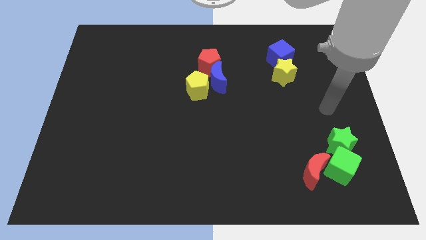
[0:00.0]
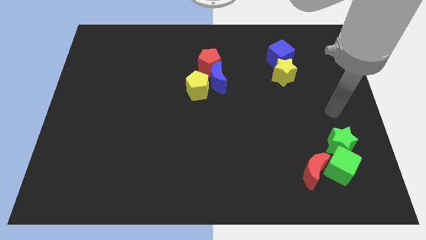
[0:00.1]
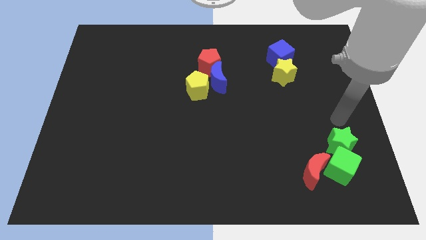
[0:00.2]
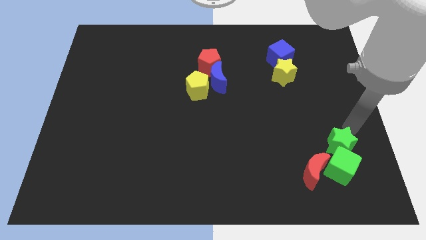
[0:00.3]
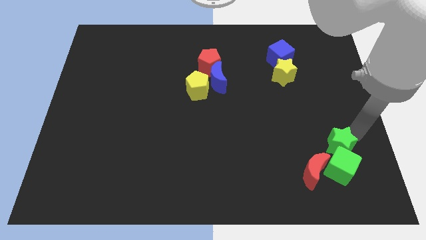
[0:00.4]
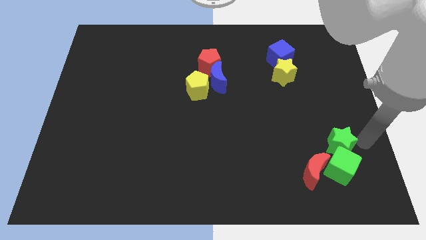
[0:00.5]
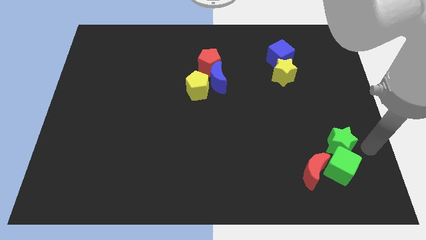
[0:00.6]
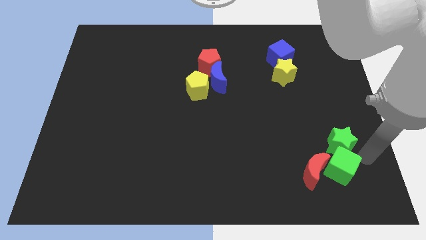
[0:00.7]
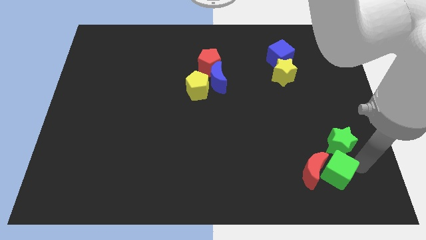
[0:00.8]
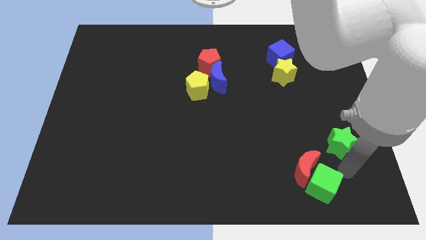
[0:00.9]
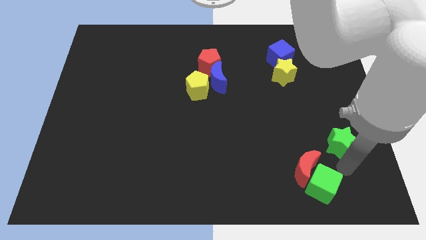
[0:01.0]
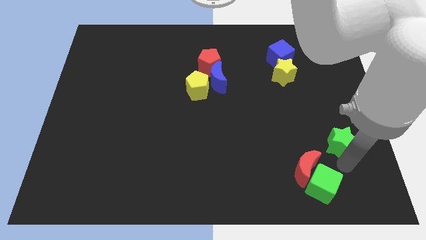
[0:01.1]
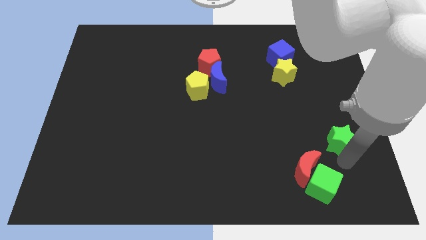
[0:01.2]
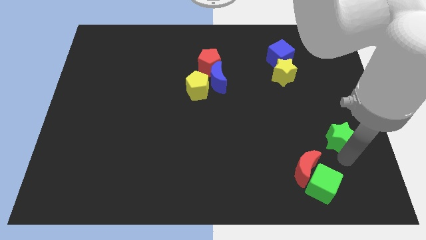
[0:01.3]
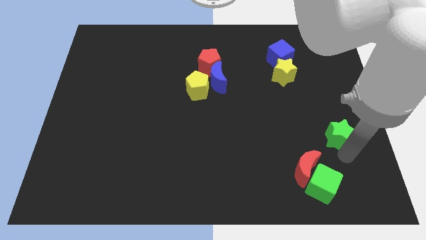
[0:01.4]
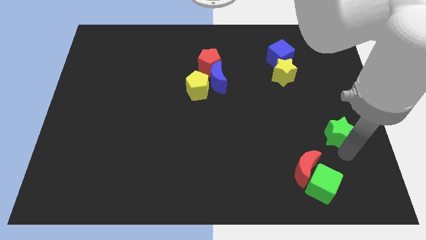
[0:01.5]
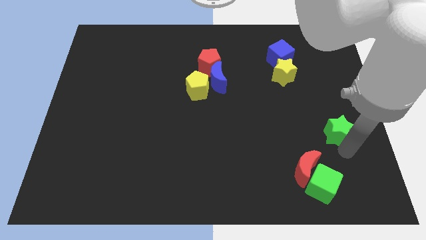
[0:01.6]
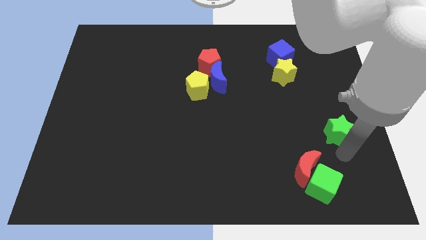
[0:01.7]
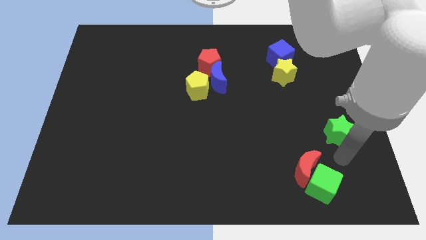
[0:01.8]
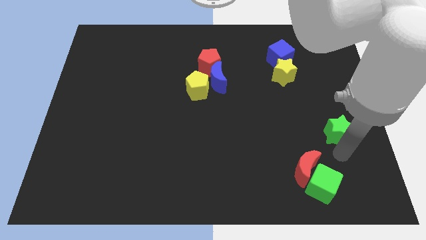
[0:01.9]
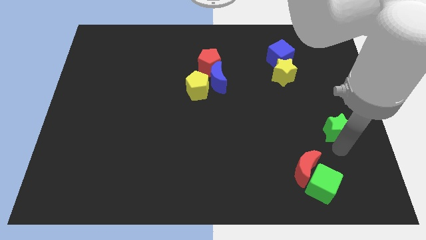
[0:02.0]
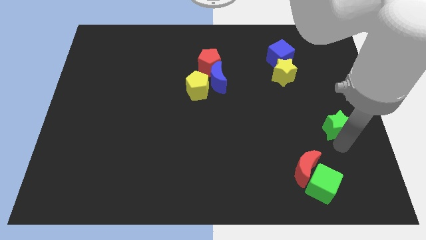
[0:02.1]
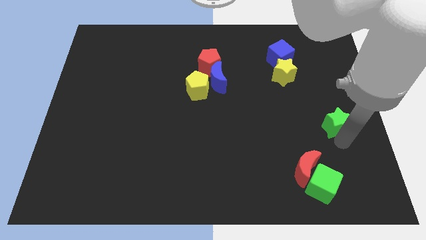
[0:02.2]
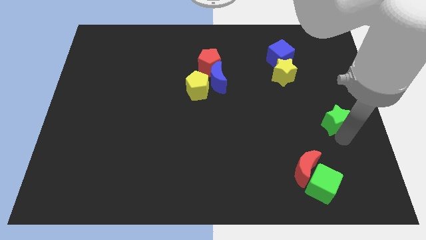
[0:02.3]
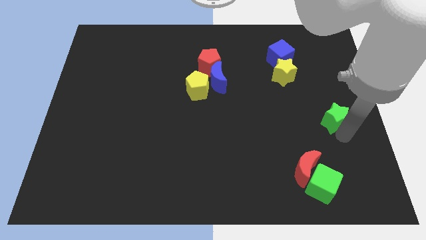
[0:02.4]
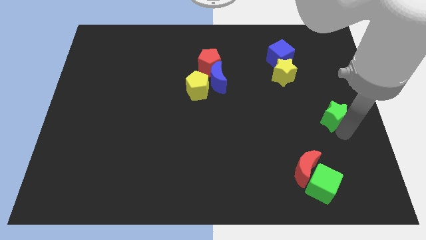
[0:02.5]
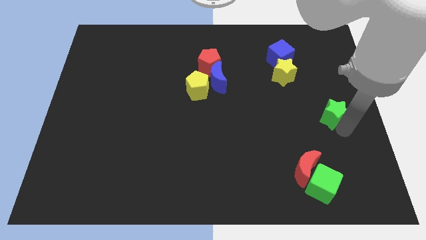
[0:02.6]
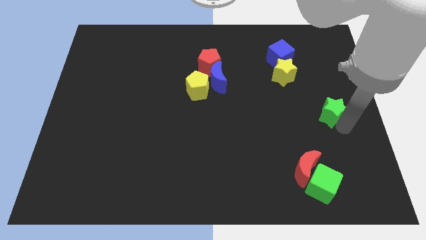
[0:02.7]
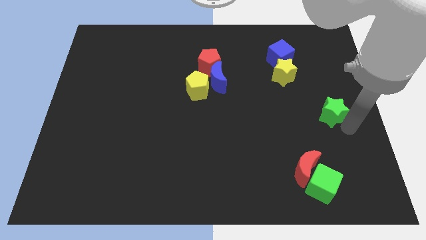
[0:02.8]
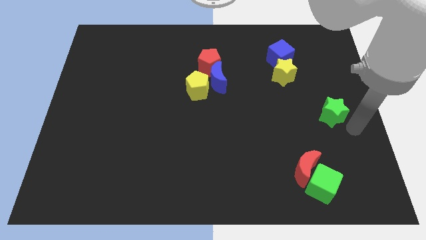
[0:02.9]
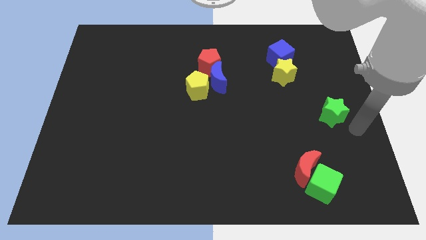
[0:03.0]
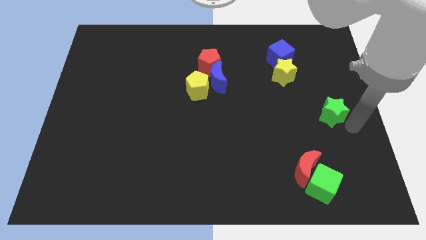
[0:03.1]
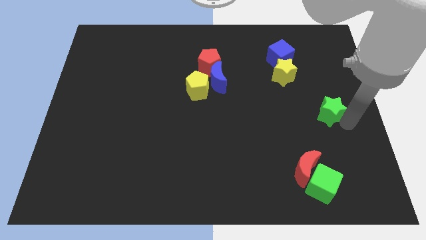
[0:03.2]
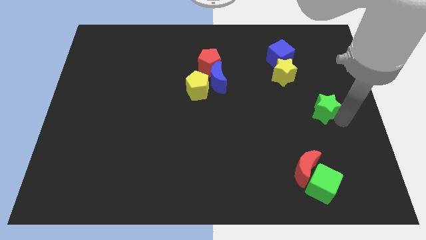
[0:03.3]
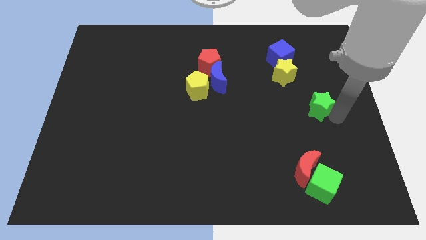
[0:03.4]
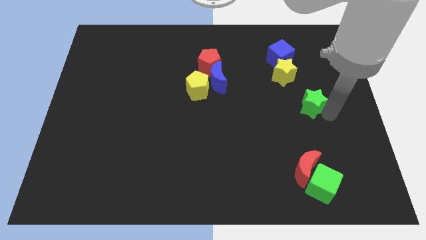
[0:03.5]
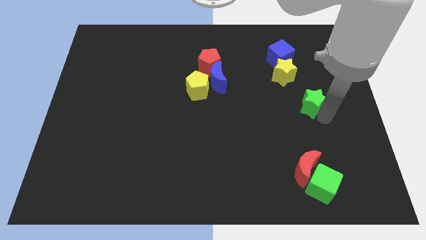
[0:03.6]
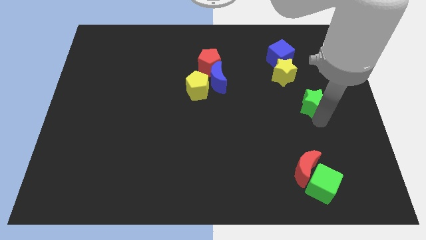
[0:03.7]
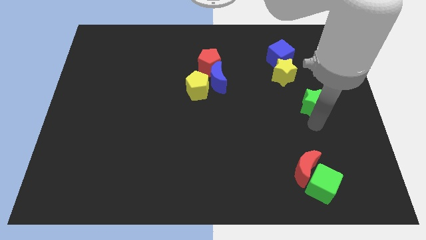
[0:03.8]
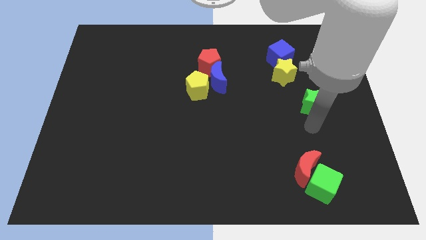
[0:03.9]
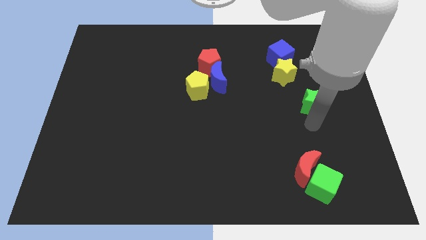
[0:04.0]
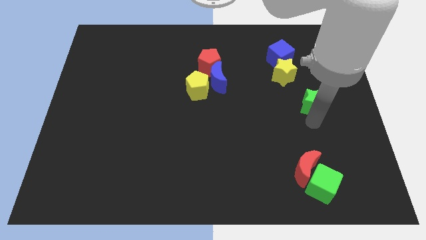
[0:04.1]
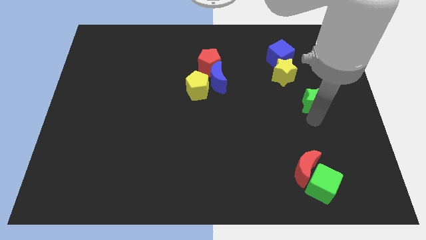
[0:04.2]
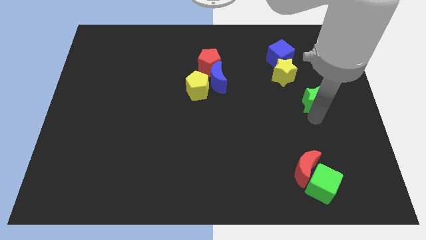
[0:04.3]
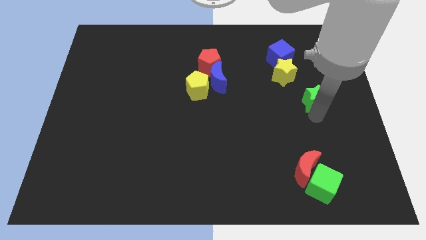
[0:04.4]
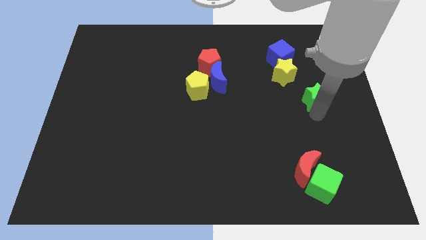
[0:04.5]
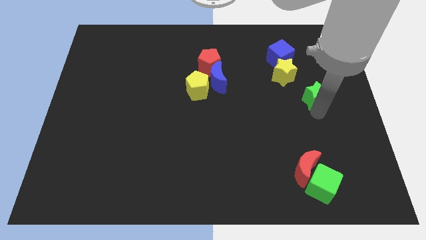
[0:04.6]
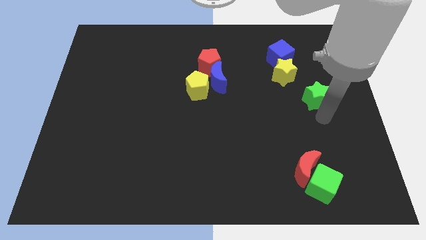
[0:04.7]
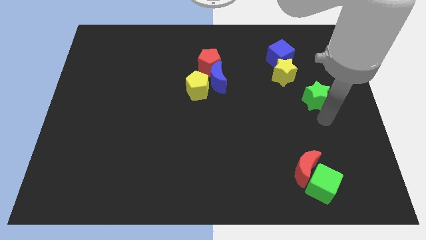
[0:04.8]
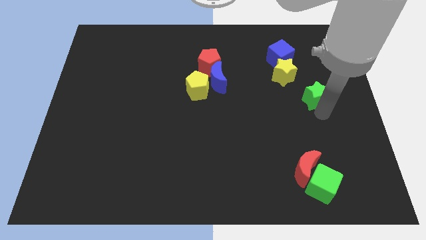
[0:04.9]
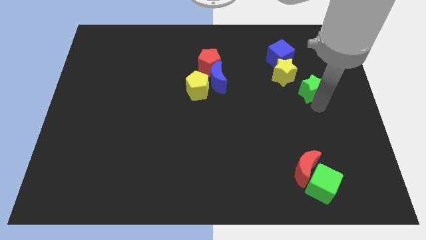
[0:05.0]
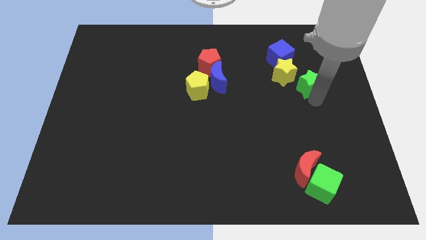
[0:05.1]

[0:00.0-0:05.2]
move the green star to the bottom right side of the blue cube

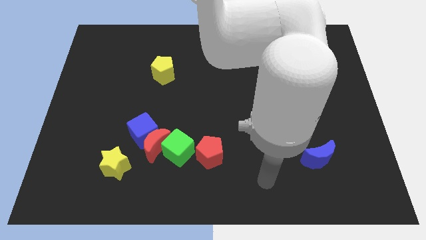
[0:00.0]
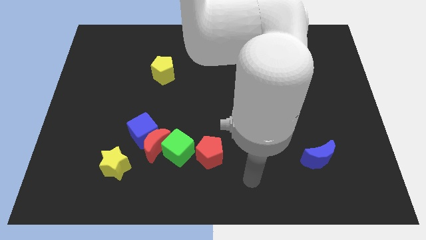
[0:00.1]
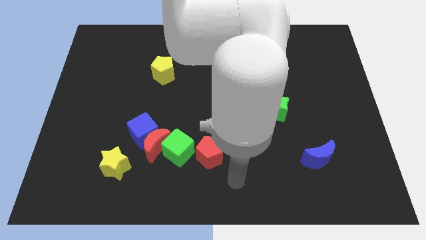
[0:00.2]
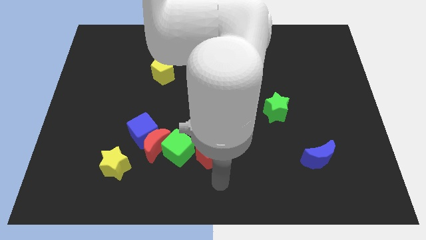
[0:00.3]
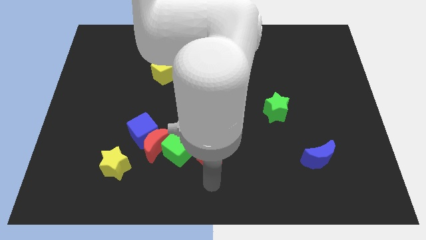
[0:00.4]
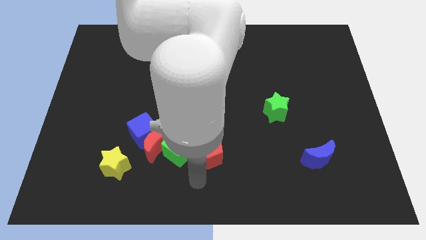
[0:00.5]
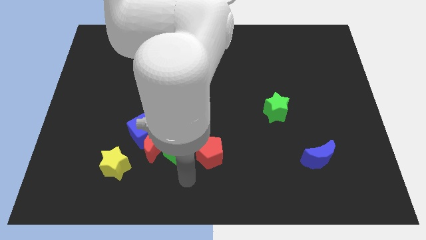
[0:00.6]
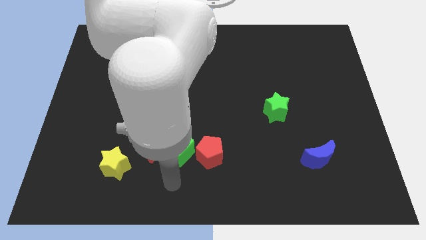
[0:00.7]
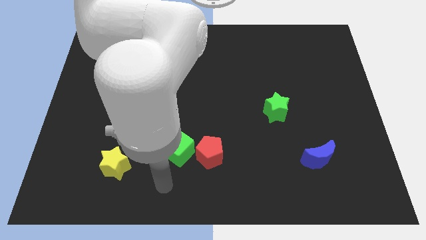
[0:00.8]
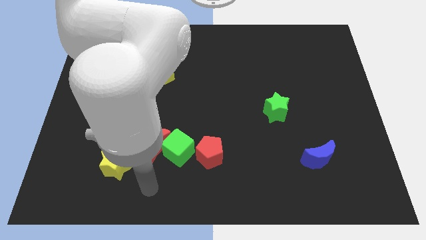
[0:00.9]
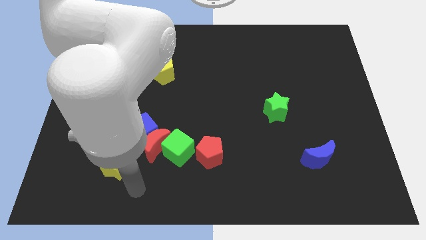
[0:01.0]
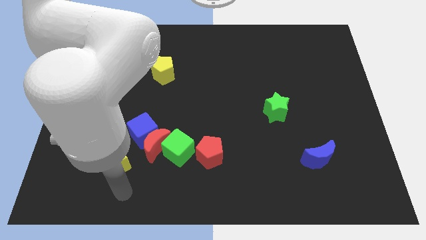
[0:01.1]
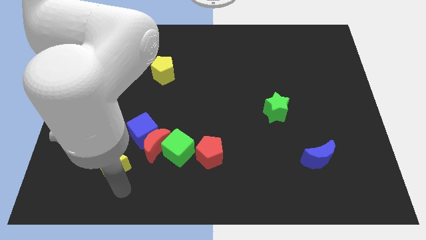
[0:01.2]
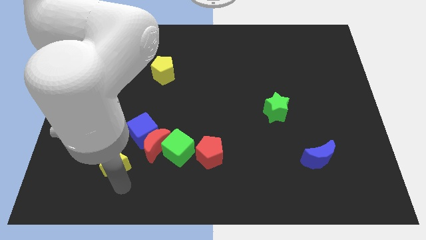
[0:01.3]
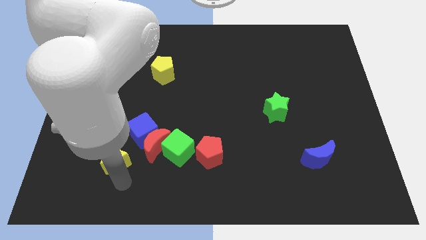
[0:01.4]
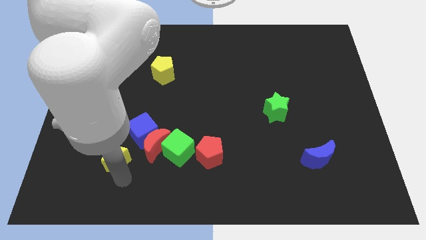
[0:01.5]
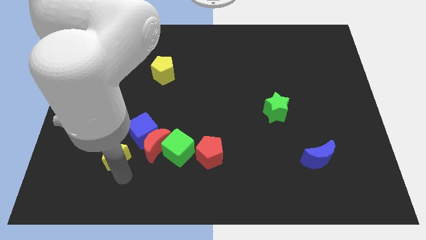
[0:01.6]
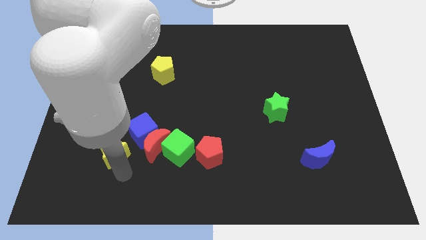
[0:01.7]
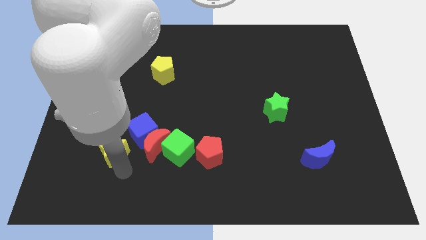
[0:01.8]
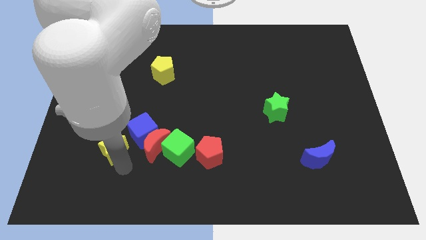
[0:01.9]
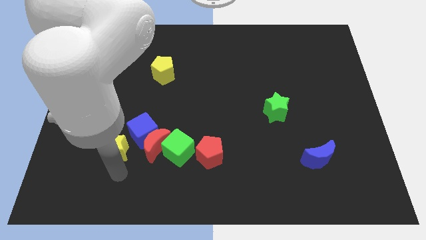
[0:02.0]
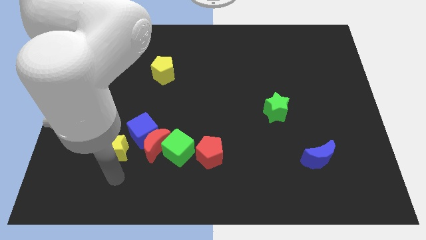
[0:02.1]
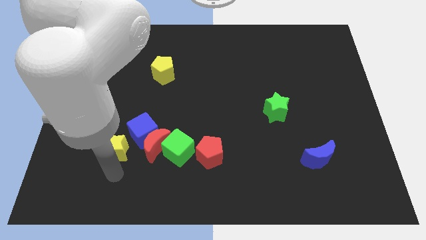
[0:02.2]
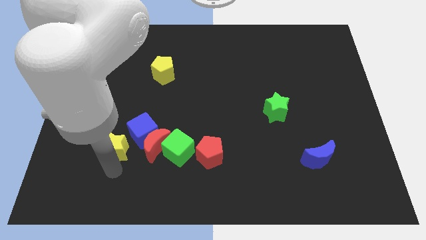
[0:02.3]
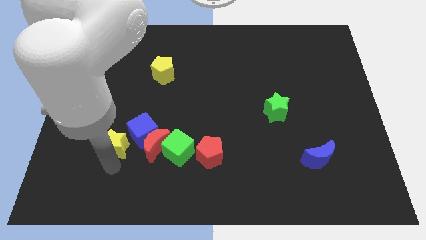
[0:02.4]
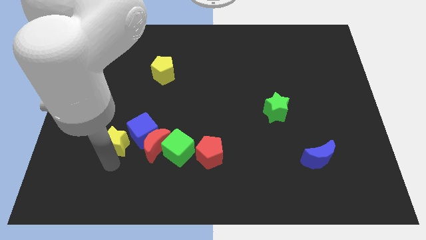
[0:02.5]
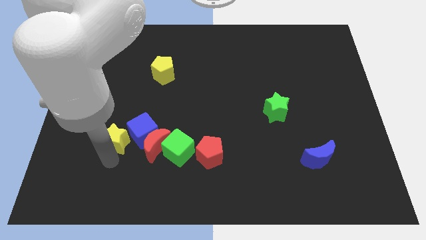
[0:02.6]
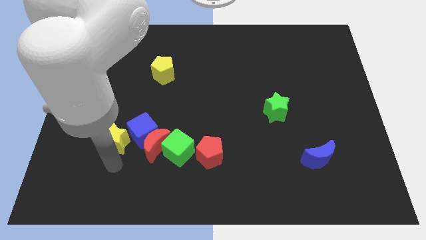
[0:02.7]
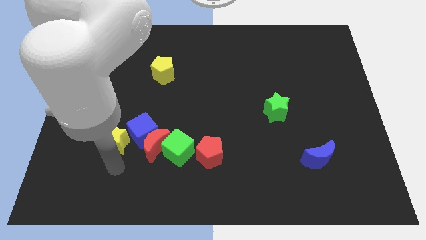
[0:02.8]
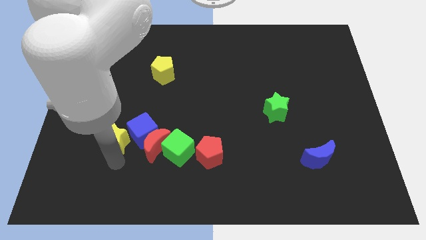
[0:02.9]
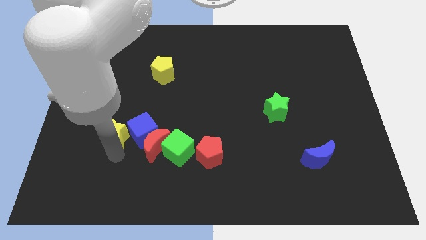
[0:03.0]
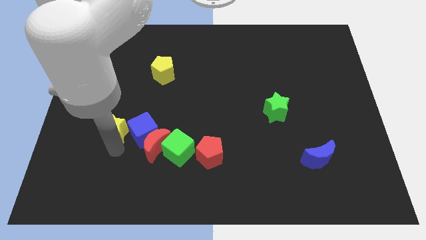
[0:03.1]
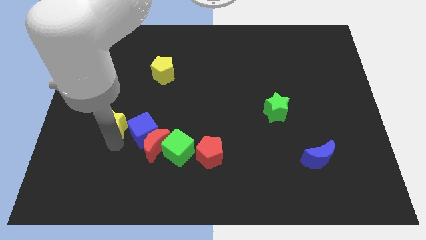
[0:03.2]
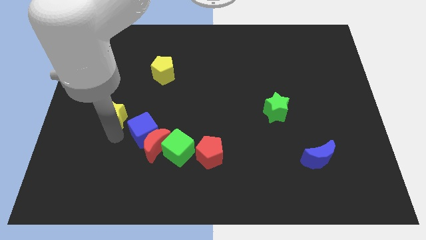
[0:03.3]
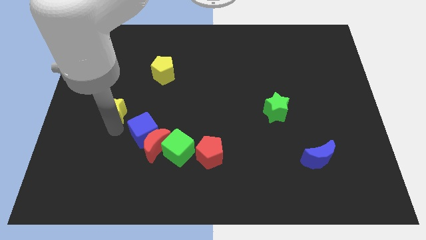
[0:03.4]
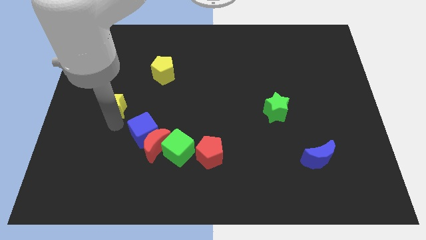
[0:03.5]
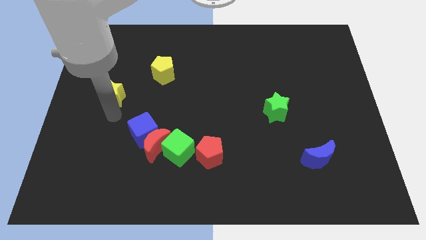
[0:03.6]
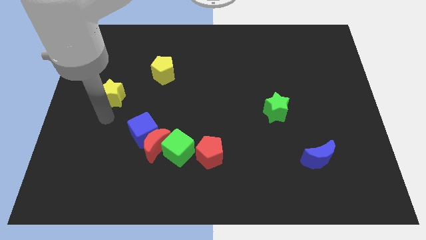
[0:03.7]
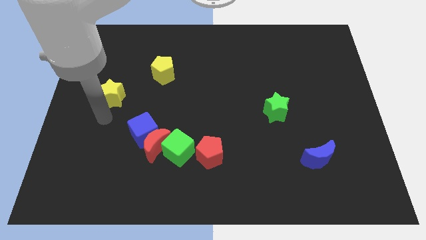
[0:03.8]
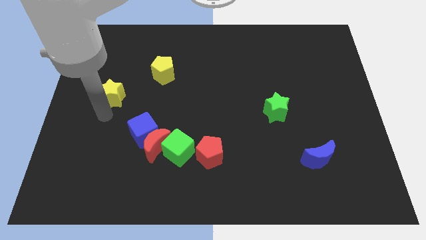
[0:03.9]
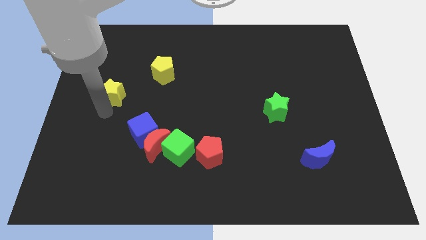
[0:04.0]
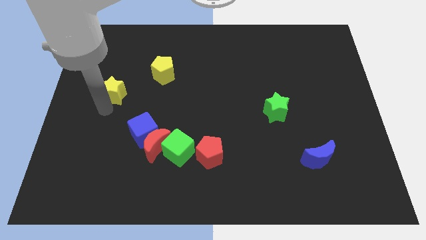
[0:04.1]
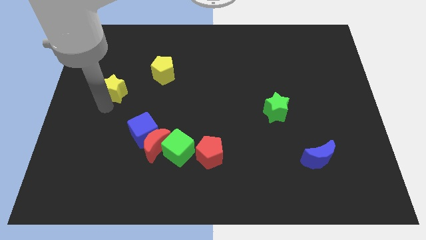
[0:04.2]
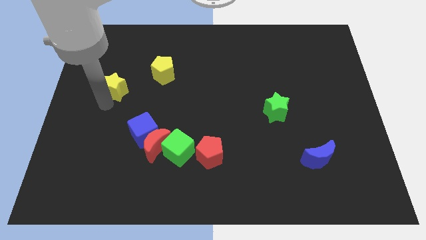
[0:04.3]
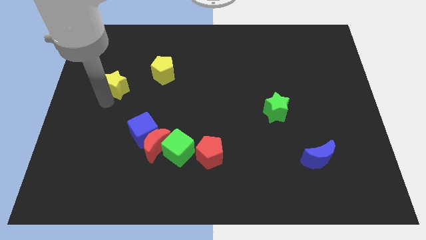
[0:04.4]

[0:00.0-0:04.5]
push the yellow star to the left of the yellow pentagon
